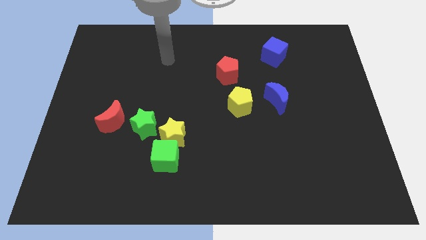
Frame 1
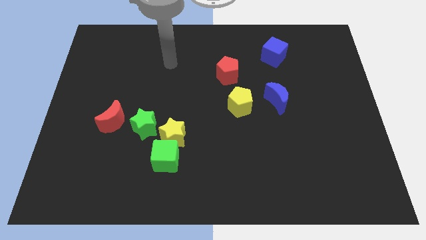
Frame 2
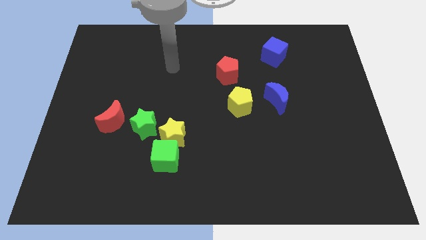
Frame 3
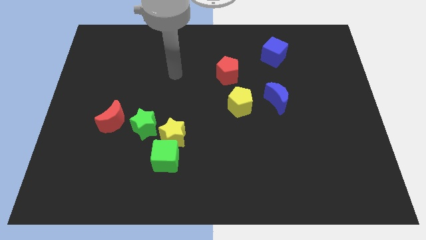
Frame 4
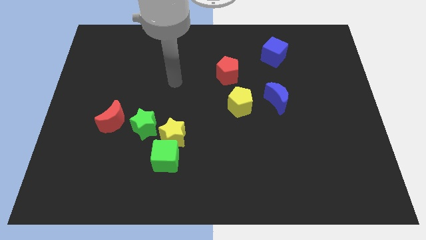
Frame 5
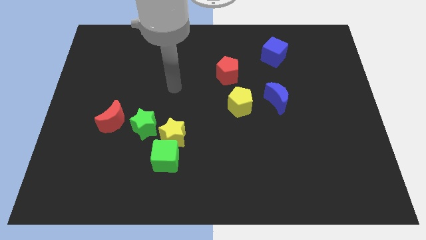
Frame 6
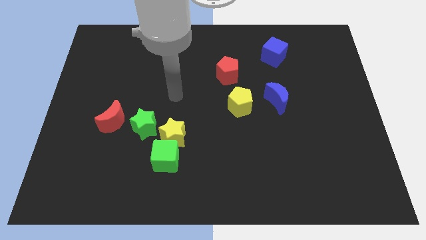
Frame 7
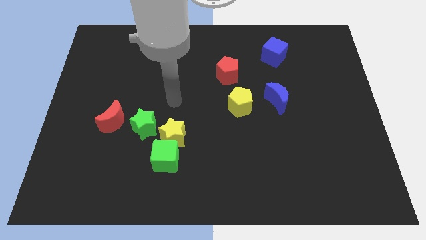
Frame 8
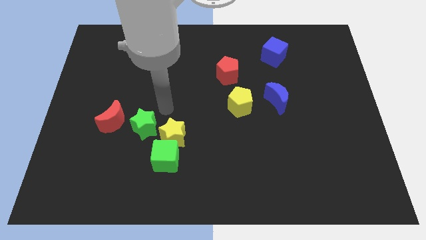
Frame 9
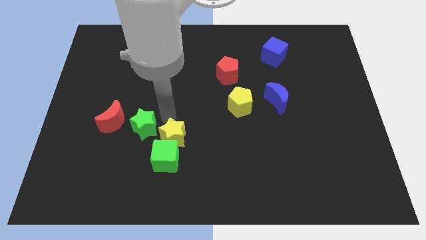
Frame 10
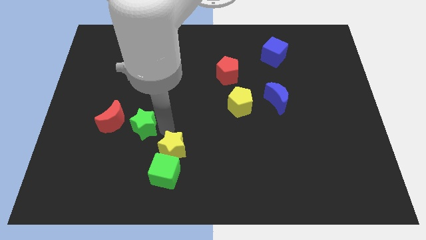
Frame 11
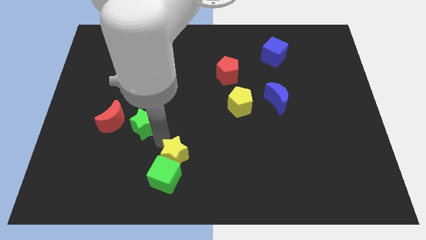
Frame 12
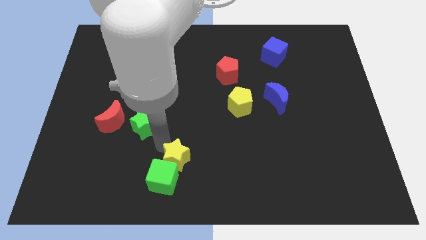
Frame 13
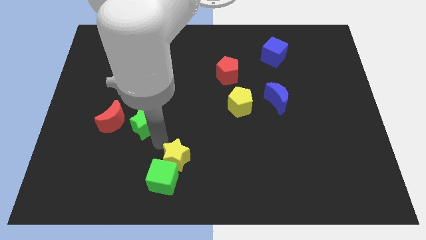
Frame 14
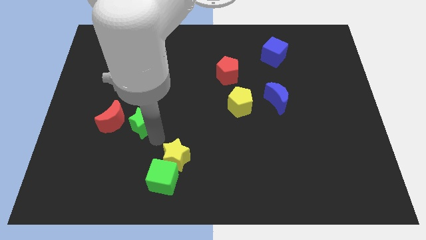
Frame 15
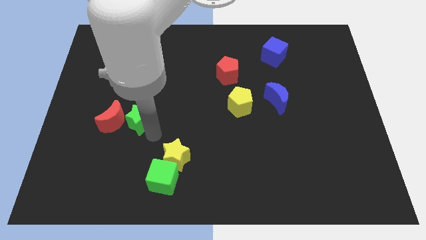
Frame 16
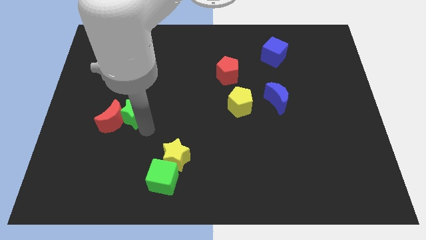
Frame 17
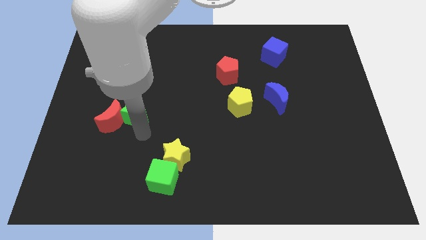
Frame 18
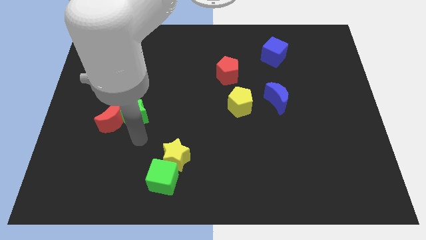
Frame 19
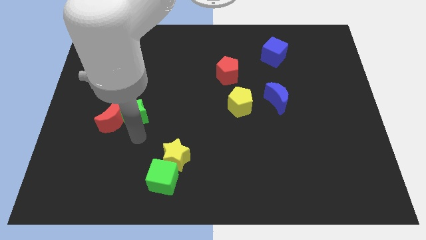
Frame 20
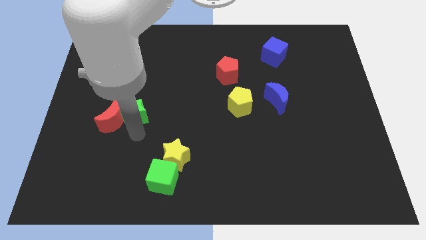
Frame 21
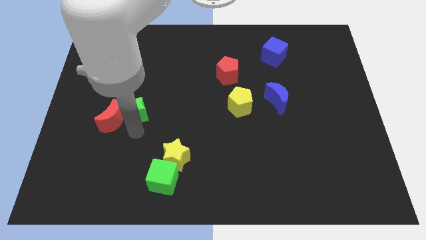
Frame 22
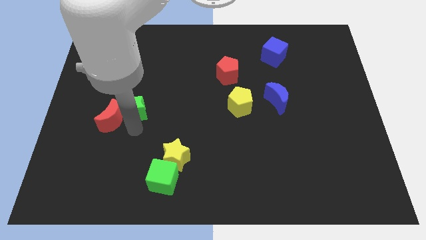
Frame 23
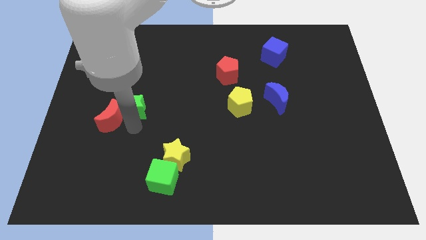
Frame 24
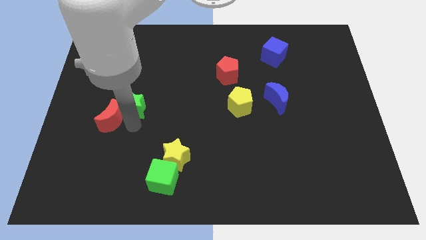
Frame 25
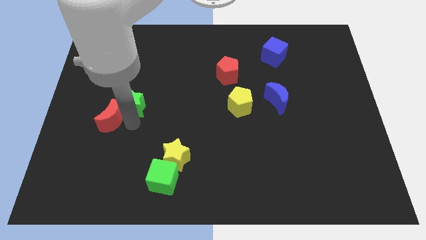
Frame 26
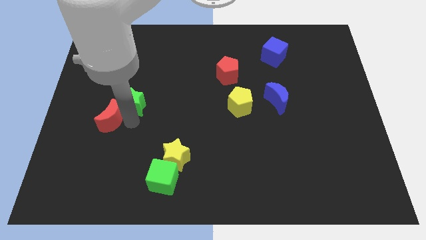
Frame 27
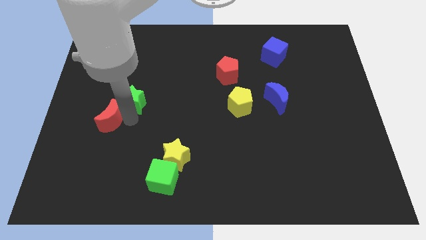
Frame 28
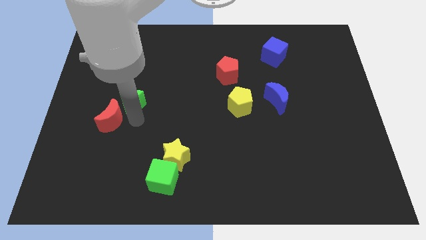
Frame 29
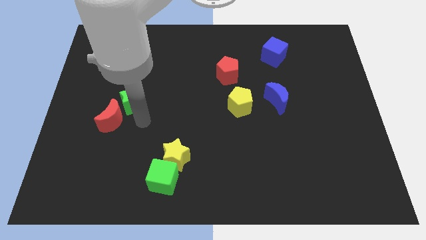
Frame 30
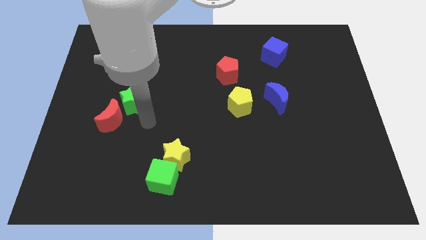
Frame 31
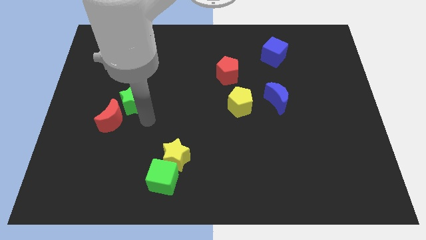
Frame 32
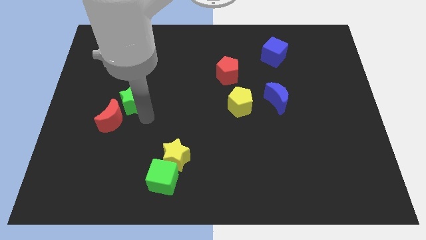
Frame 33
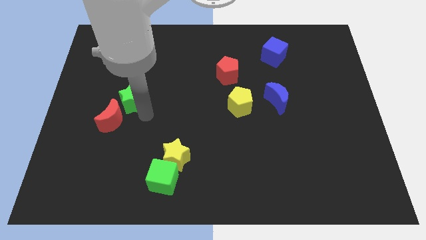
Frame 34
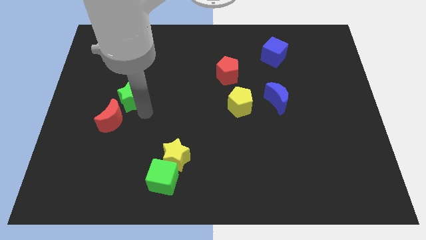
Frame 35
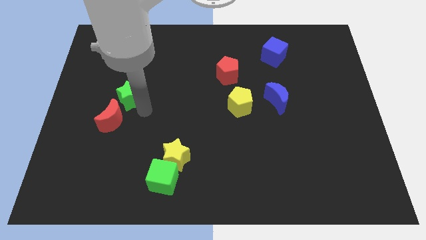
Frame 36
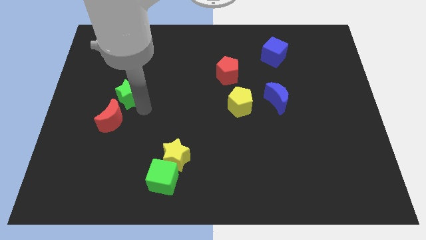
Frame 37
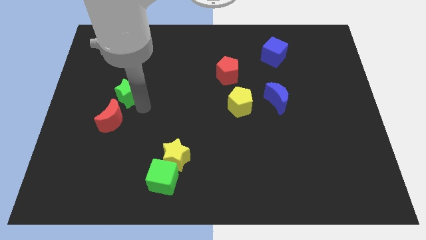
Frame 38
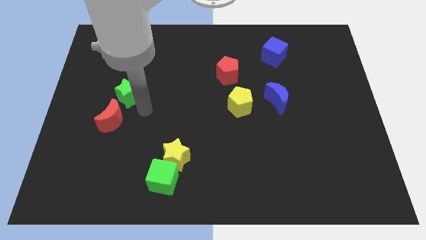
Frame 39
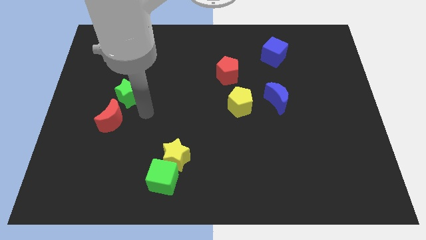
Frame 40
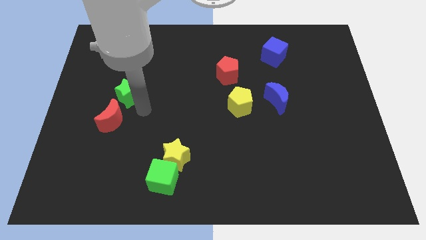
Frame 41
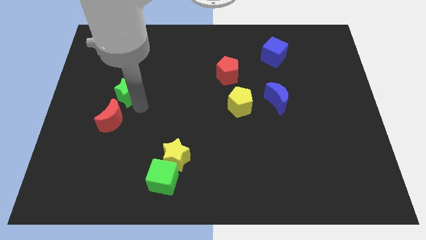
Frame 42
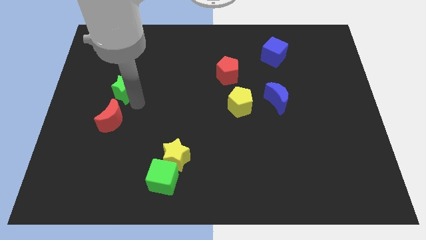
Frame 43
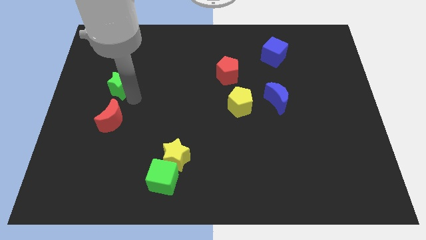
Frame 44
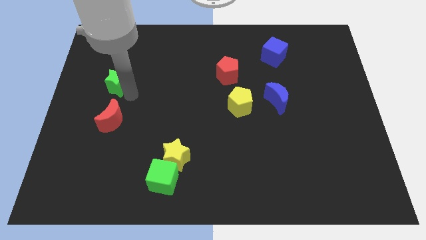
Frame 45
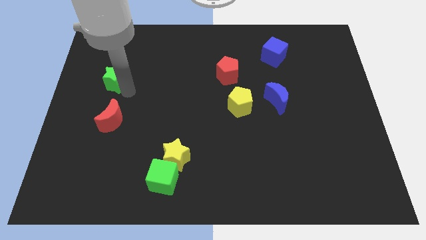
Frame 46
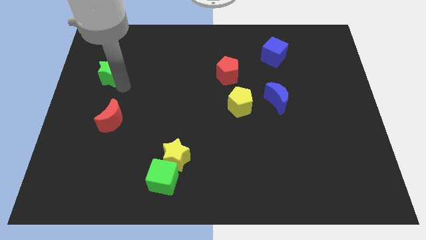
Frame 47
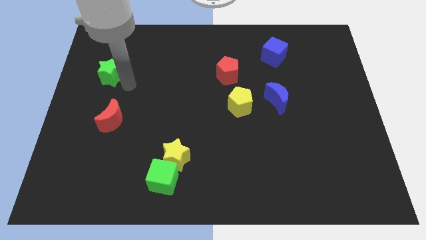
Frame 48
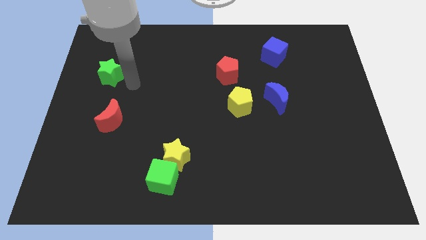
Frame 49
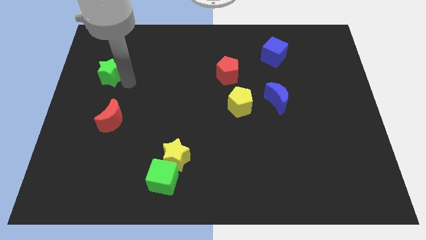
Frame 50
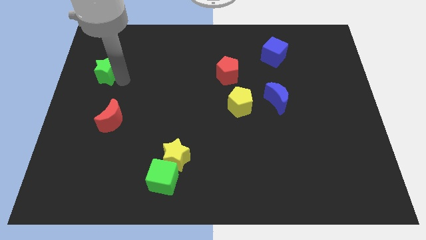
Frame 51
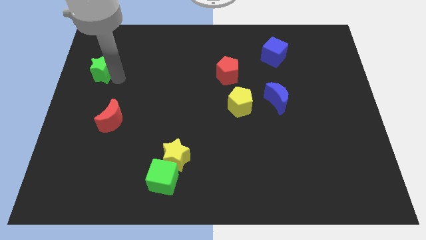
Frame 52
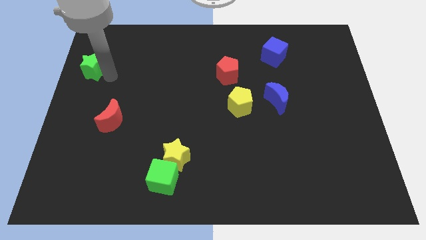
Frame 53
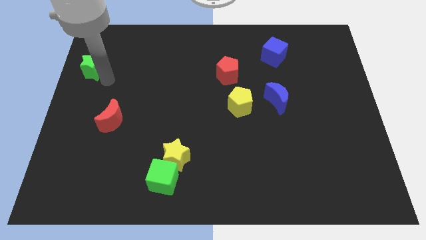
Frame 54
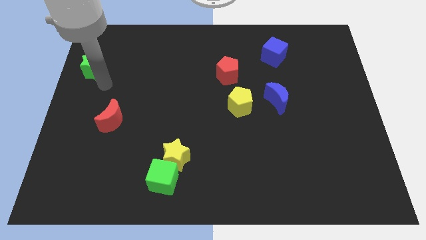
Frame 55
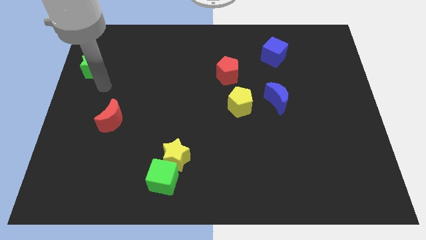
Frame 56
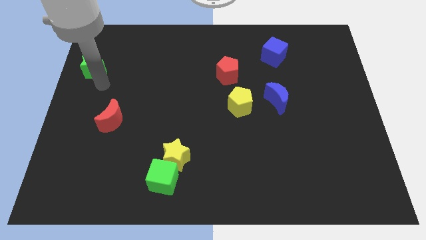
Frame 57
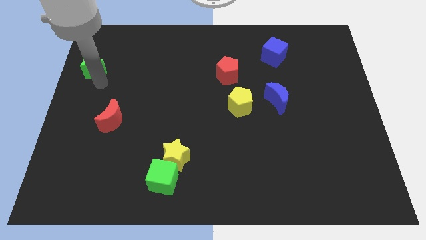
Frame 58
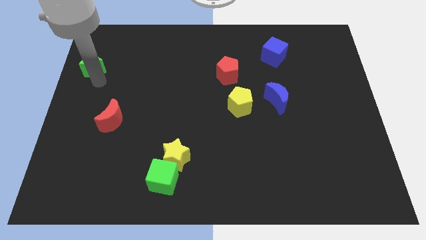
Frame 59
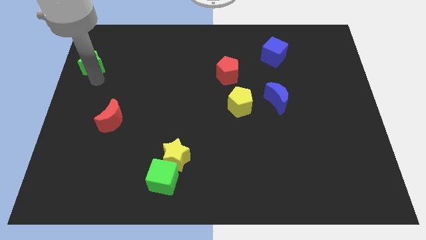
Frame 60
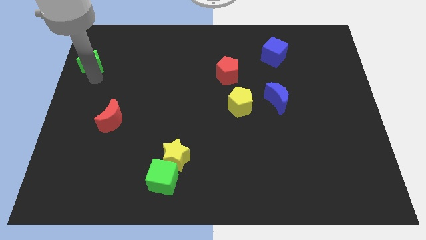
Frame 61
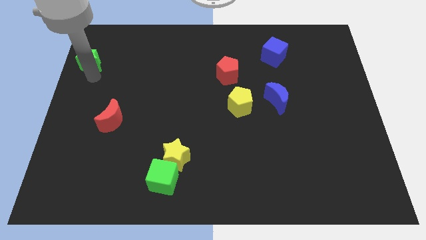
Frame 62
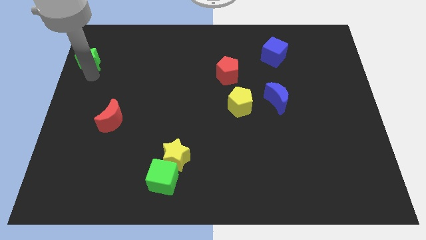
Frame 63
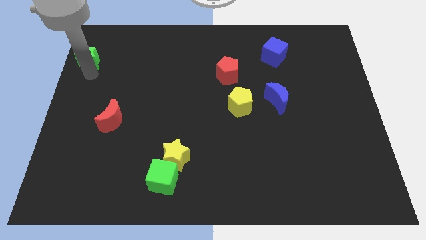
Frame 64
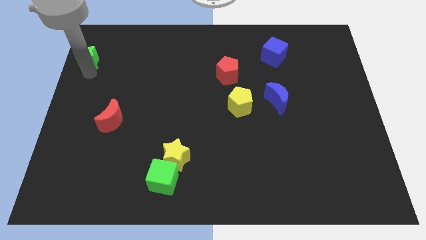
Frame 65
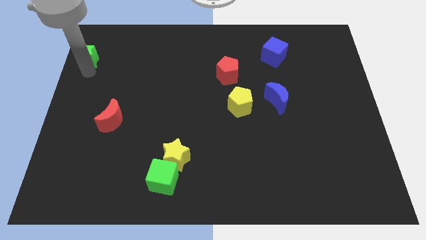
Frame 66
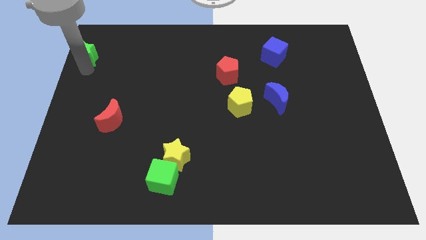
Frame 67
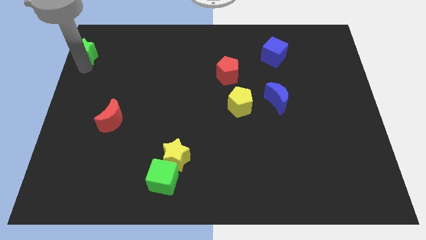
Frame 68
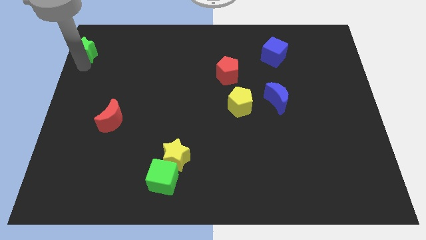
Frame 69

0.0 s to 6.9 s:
slide the green star to the top left
